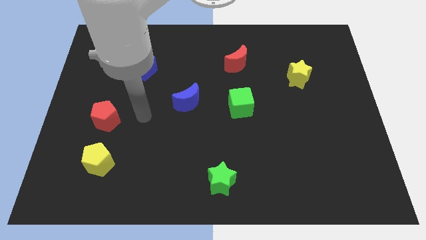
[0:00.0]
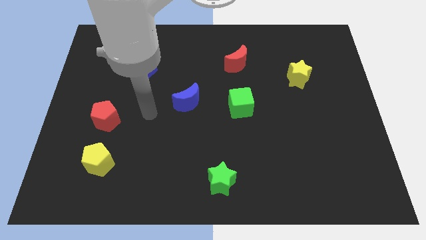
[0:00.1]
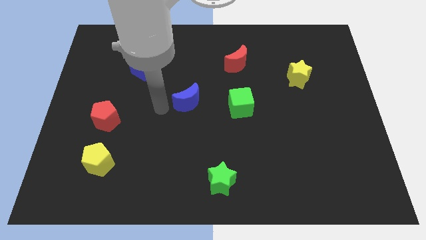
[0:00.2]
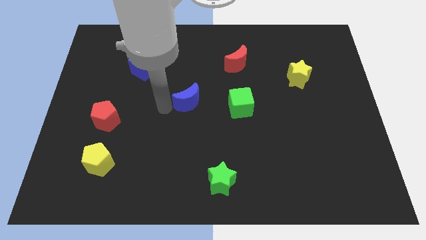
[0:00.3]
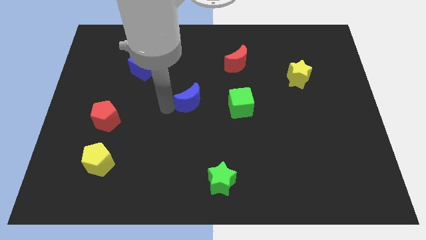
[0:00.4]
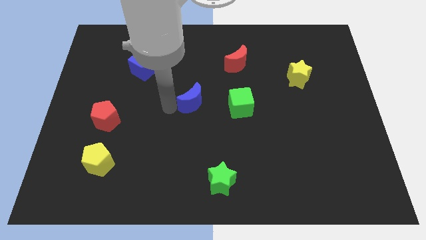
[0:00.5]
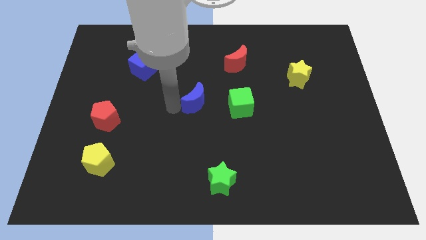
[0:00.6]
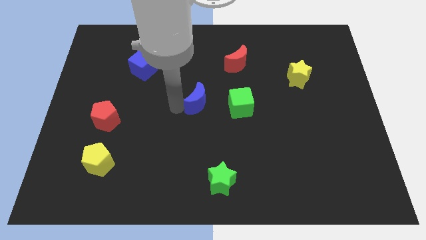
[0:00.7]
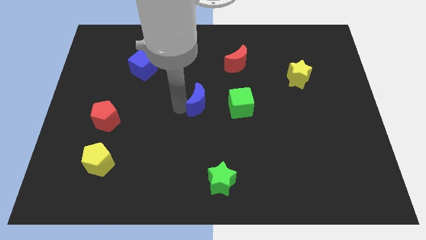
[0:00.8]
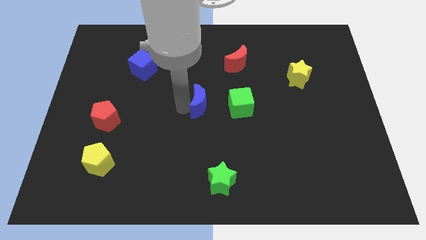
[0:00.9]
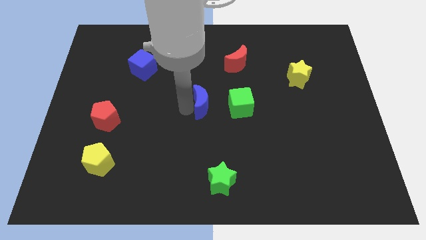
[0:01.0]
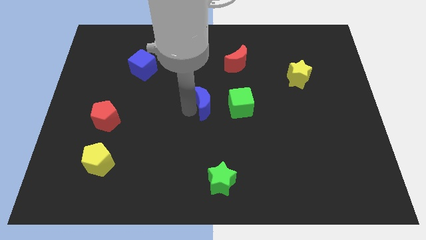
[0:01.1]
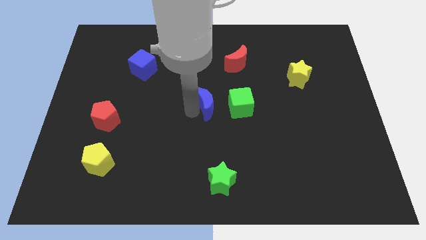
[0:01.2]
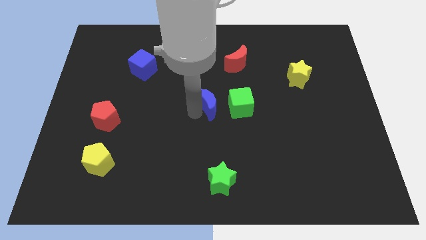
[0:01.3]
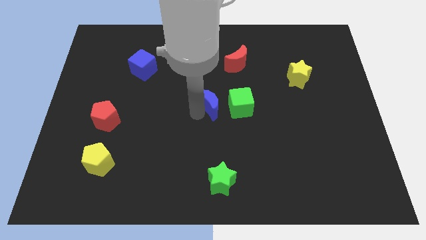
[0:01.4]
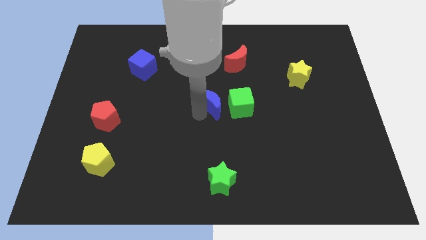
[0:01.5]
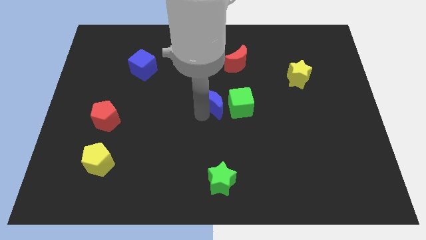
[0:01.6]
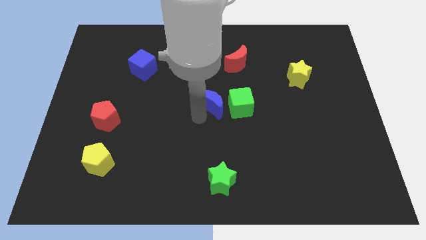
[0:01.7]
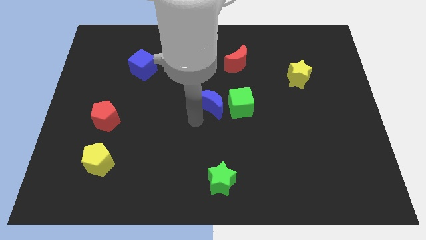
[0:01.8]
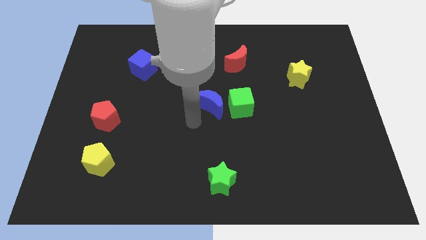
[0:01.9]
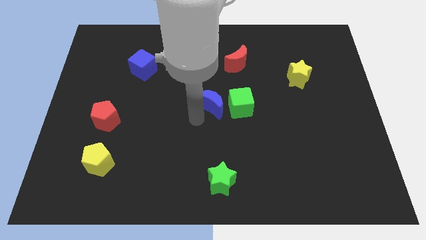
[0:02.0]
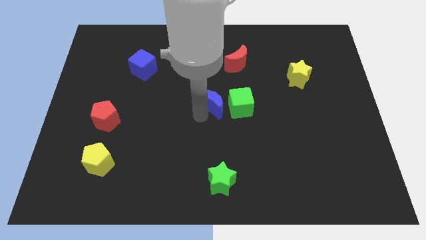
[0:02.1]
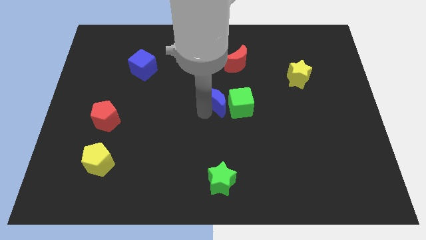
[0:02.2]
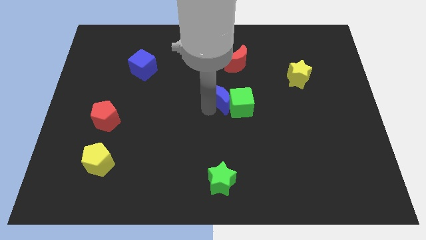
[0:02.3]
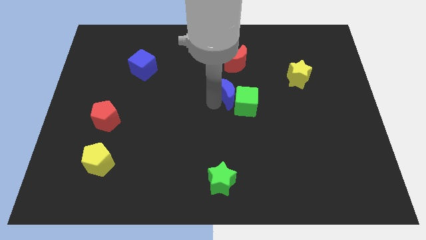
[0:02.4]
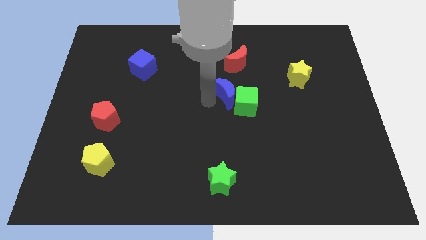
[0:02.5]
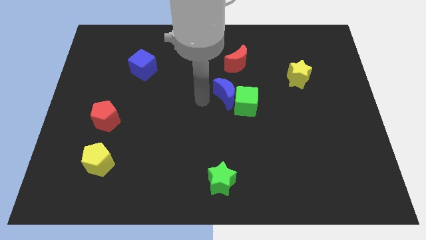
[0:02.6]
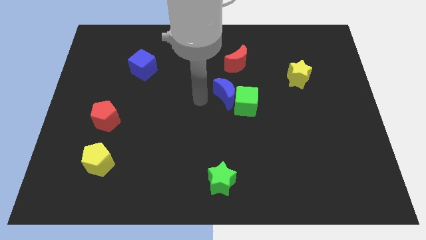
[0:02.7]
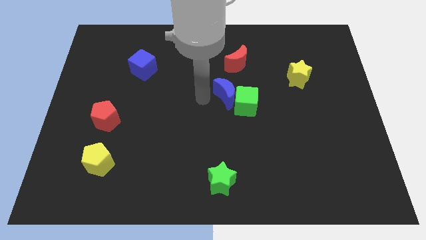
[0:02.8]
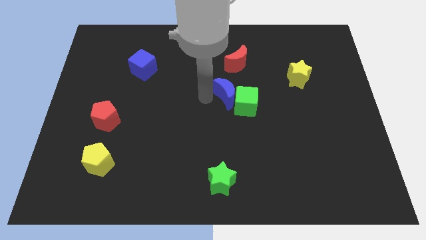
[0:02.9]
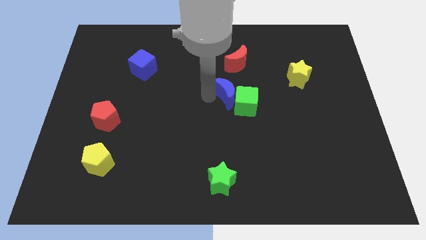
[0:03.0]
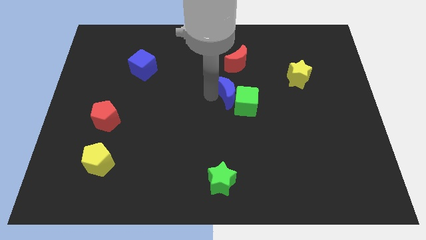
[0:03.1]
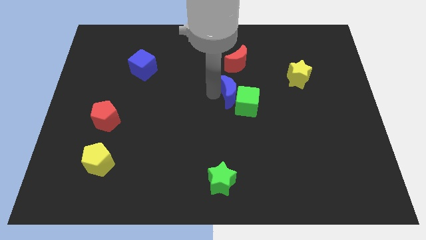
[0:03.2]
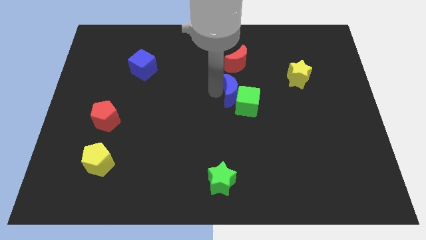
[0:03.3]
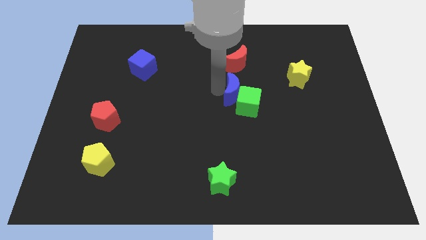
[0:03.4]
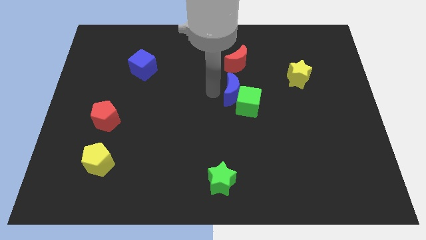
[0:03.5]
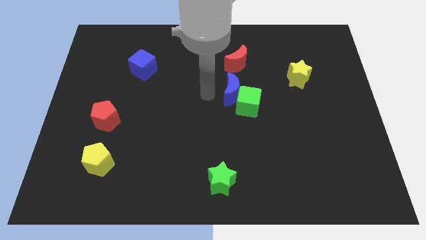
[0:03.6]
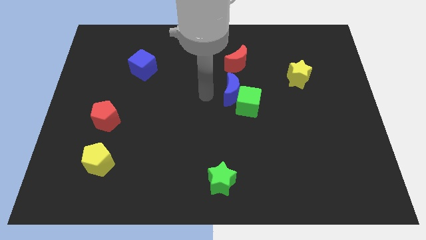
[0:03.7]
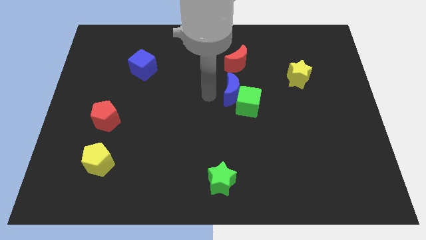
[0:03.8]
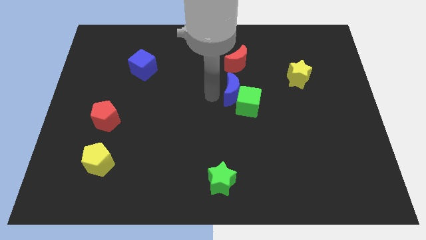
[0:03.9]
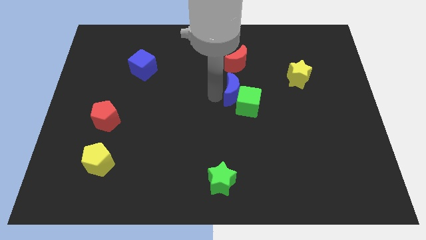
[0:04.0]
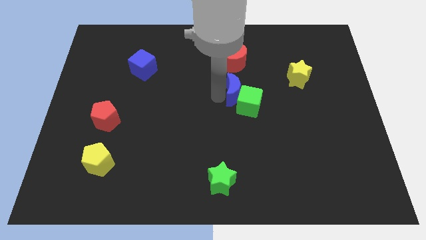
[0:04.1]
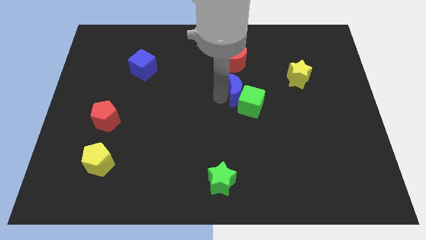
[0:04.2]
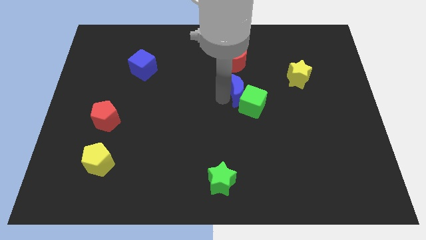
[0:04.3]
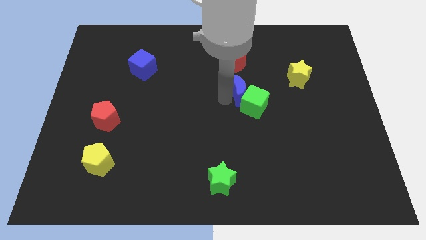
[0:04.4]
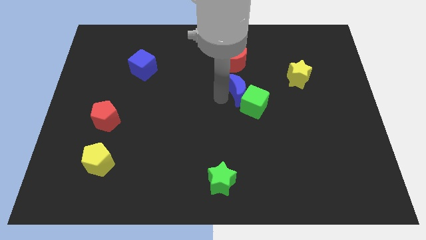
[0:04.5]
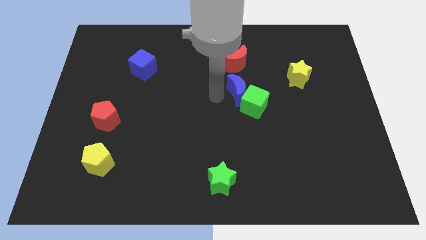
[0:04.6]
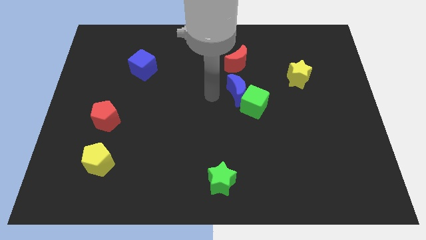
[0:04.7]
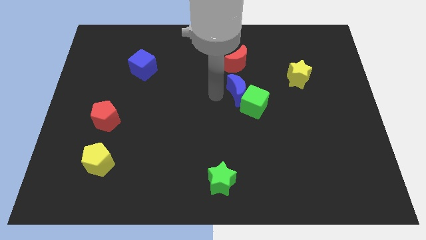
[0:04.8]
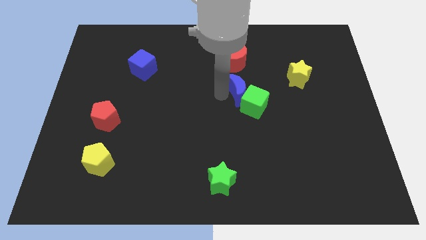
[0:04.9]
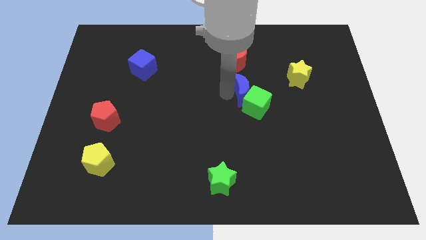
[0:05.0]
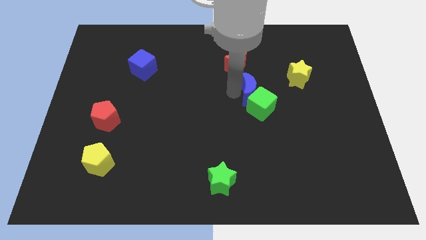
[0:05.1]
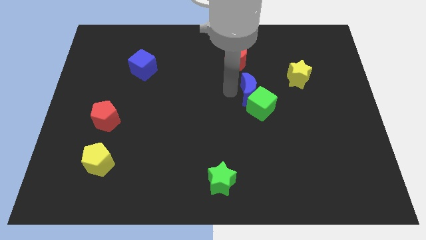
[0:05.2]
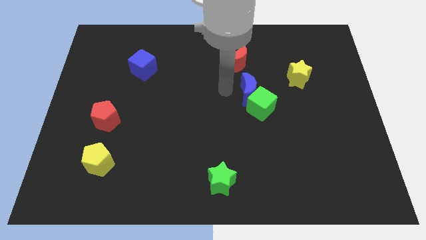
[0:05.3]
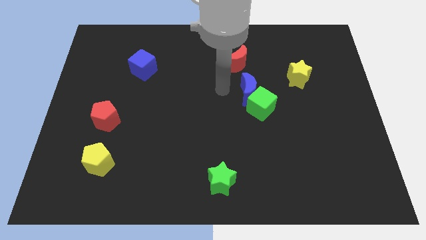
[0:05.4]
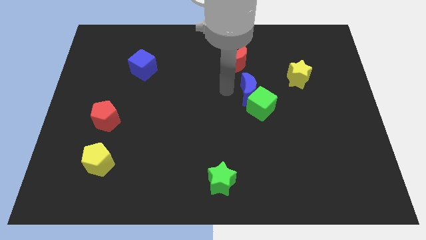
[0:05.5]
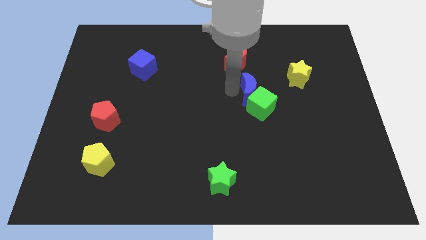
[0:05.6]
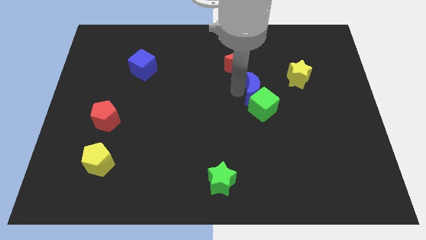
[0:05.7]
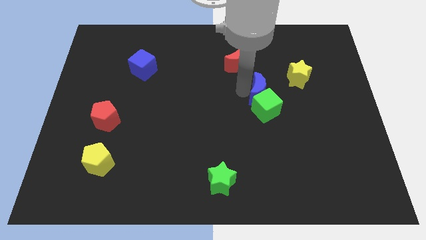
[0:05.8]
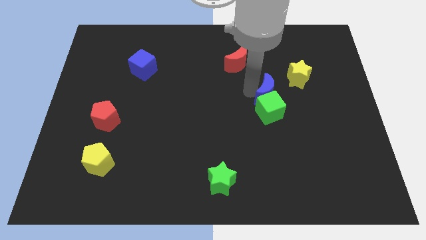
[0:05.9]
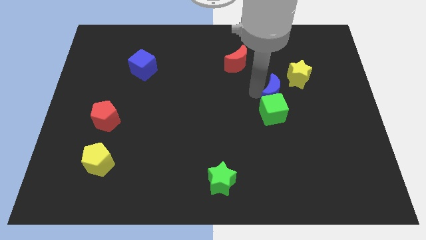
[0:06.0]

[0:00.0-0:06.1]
push the blue moon to the right

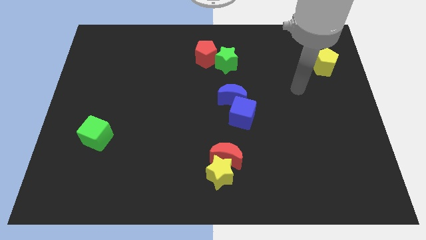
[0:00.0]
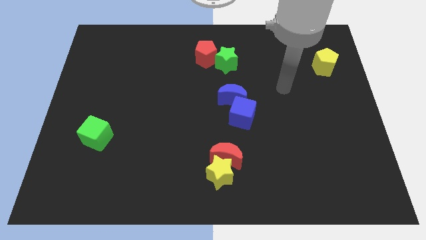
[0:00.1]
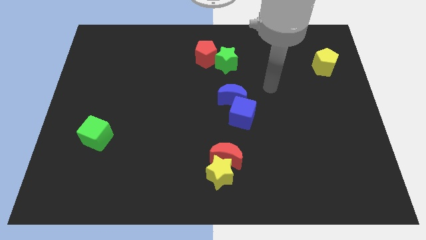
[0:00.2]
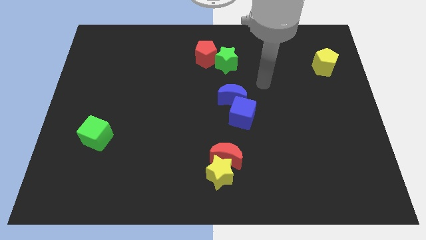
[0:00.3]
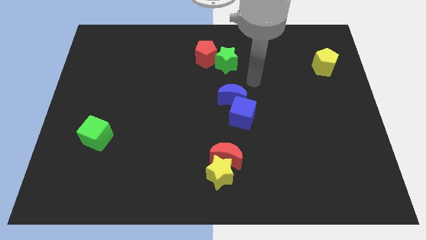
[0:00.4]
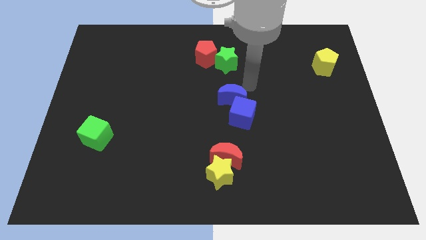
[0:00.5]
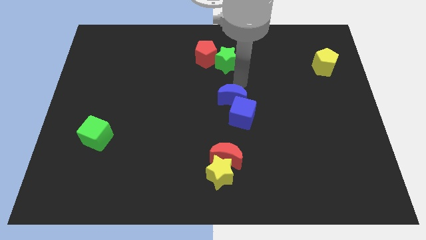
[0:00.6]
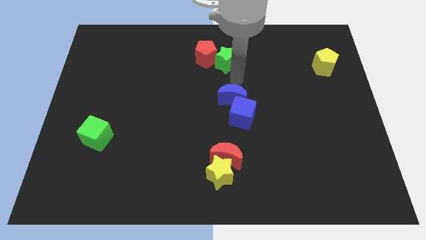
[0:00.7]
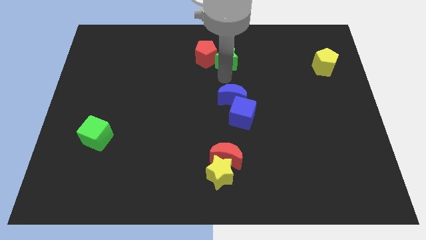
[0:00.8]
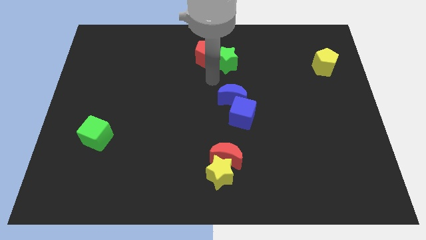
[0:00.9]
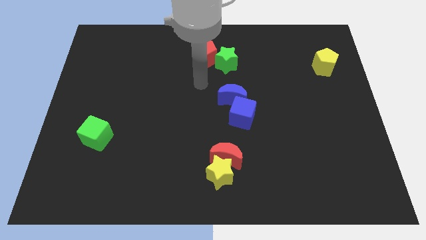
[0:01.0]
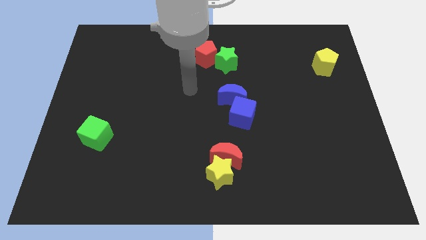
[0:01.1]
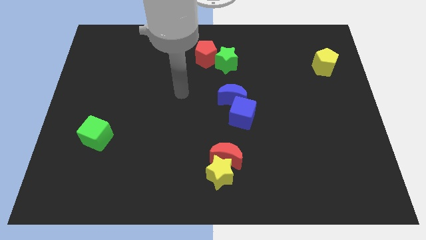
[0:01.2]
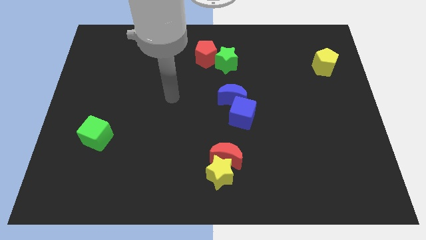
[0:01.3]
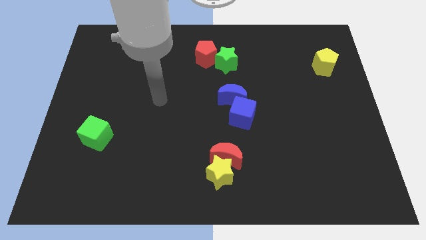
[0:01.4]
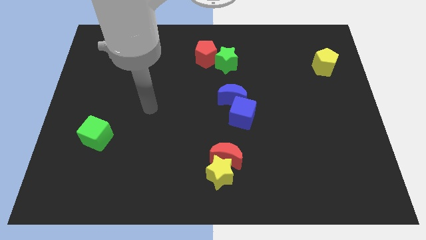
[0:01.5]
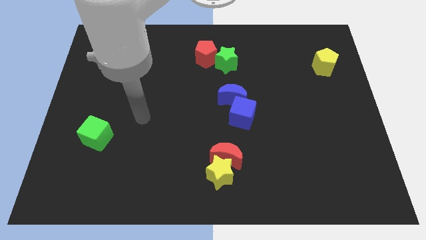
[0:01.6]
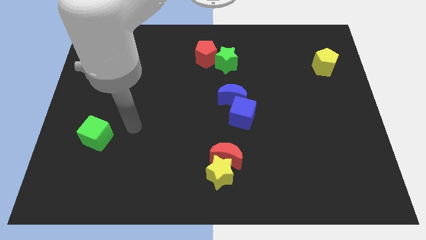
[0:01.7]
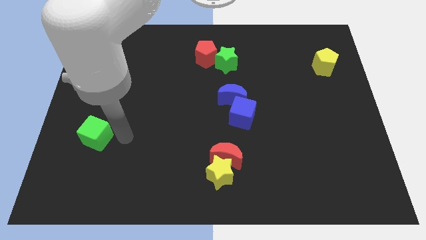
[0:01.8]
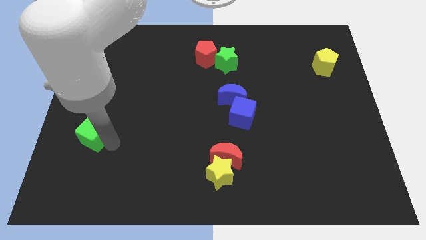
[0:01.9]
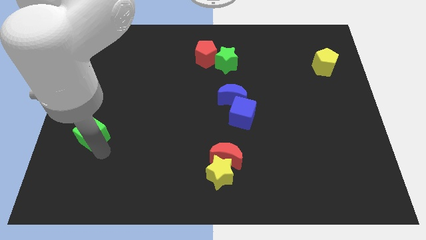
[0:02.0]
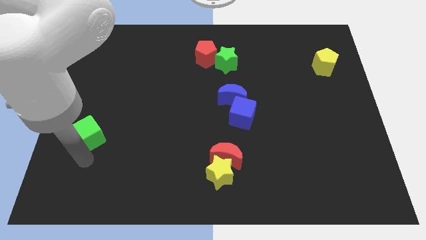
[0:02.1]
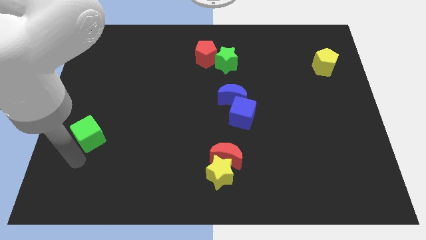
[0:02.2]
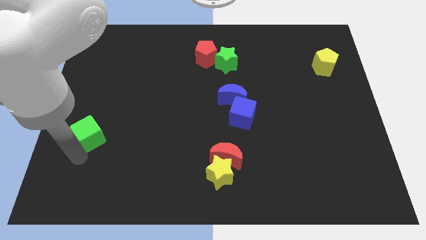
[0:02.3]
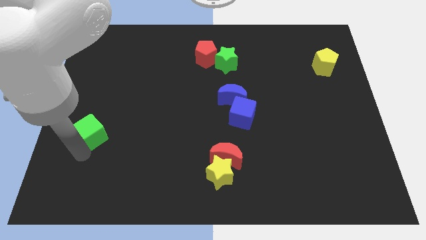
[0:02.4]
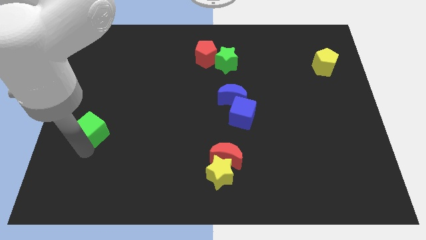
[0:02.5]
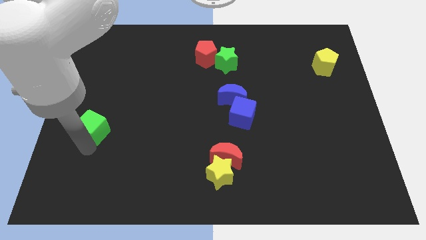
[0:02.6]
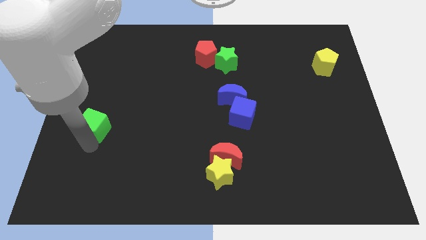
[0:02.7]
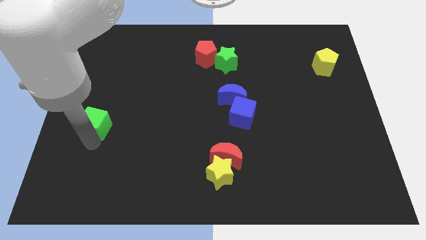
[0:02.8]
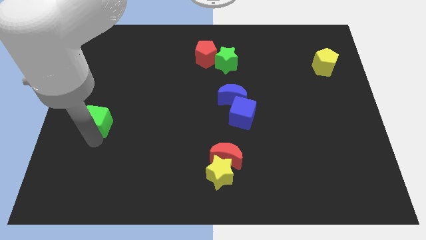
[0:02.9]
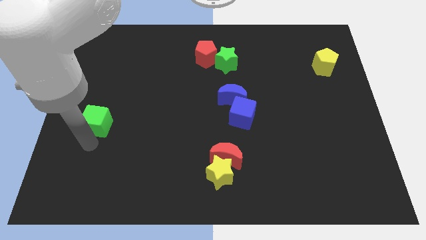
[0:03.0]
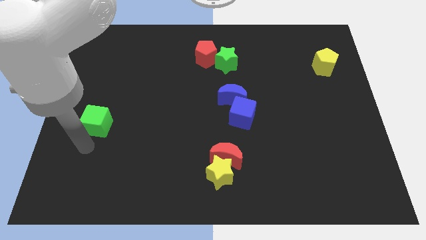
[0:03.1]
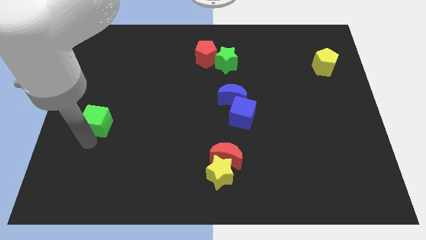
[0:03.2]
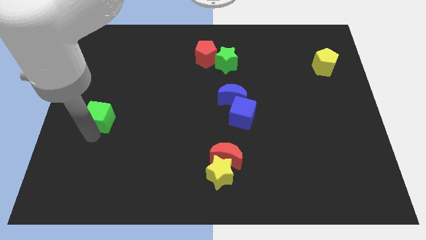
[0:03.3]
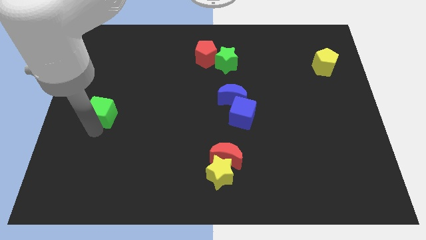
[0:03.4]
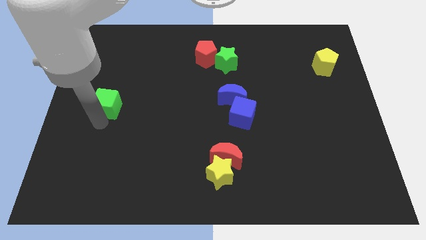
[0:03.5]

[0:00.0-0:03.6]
slide the green cube a bit upwards
